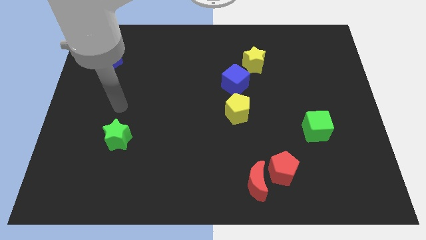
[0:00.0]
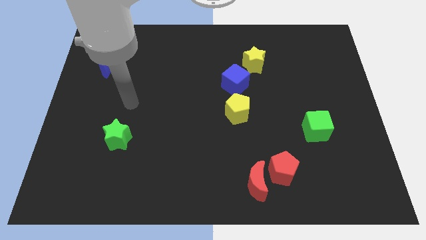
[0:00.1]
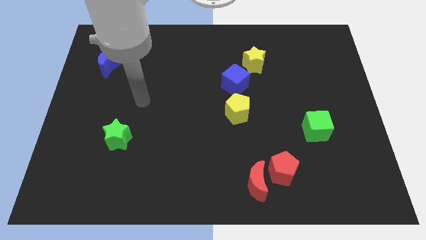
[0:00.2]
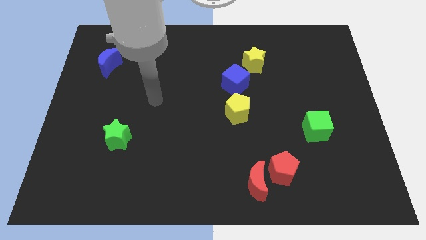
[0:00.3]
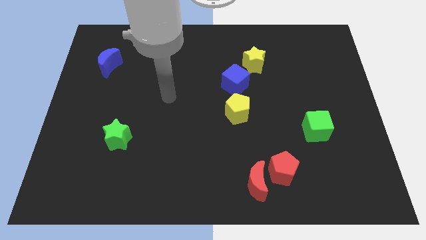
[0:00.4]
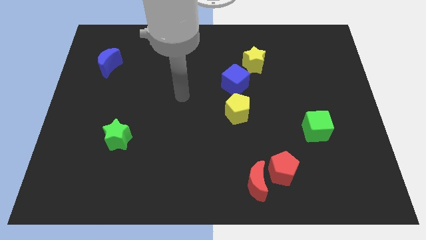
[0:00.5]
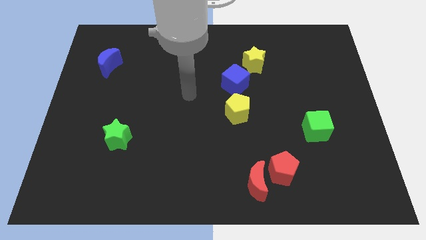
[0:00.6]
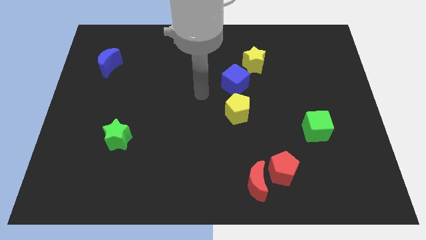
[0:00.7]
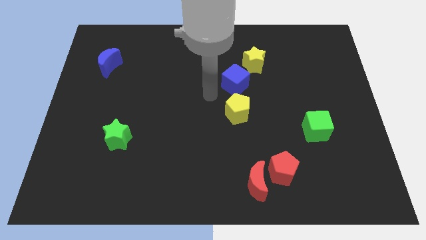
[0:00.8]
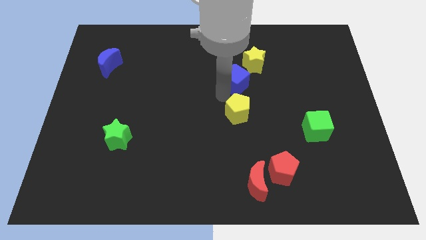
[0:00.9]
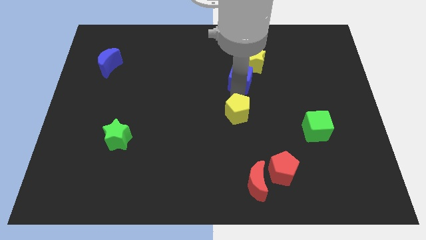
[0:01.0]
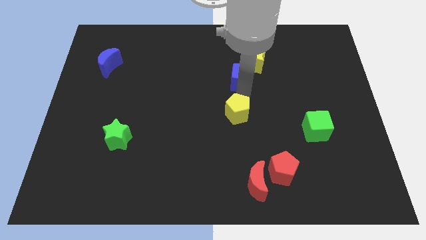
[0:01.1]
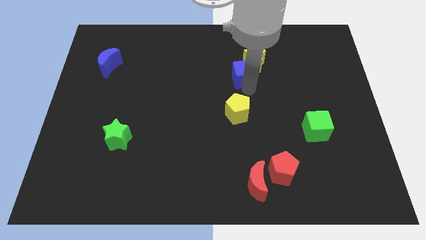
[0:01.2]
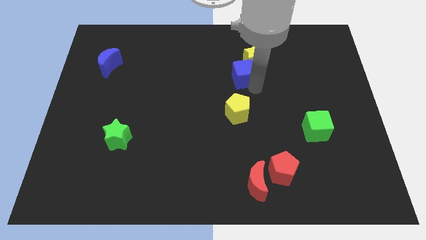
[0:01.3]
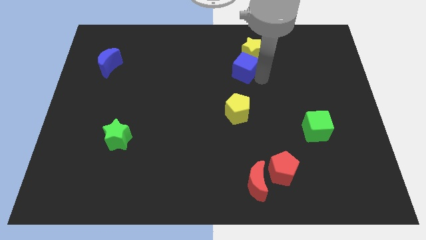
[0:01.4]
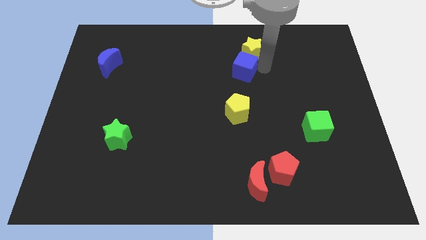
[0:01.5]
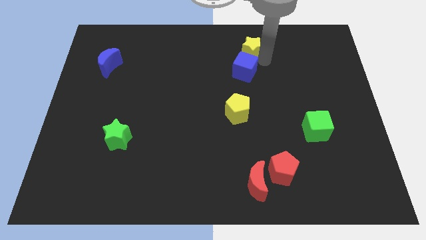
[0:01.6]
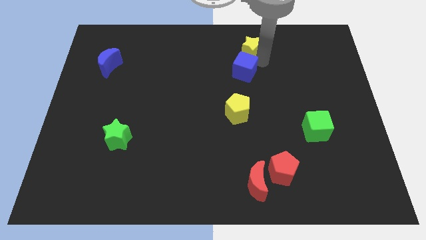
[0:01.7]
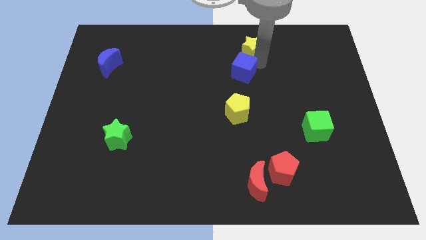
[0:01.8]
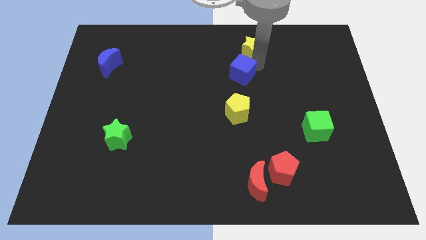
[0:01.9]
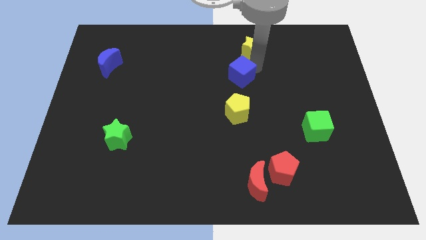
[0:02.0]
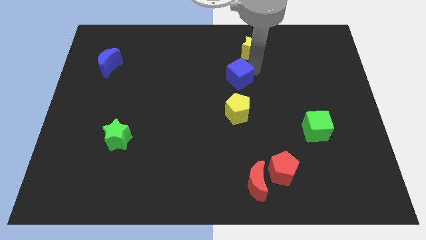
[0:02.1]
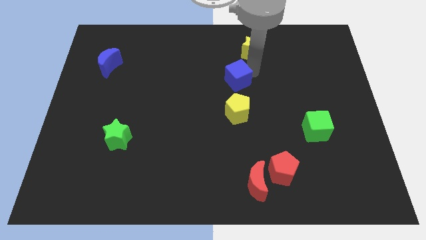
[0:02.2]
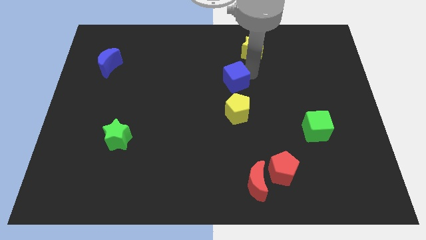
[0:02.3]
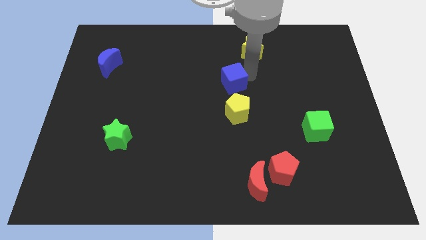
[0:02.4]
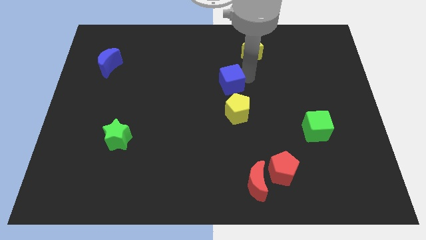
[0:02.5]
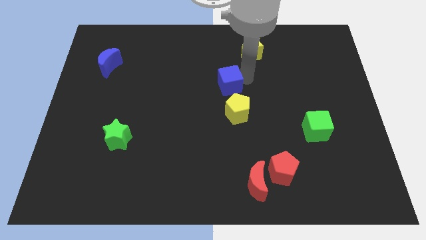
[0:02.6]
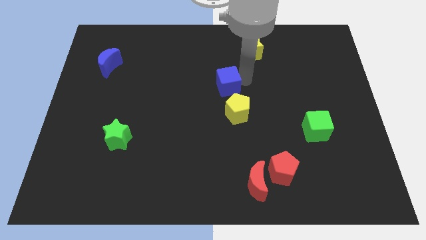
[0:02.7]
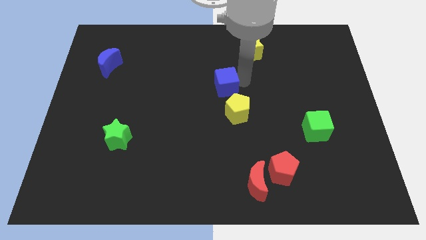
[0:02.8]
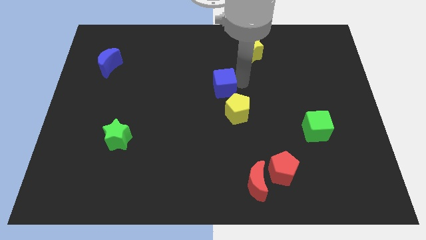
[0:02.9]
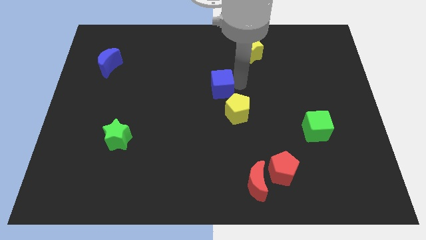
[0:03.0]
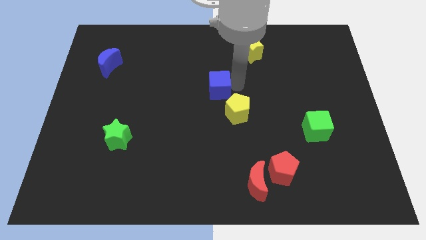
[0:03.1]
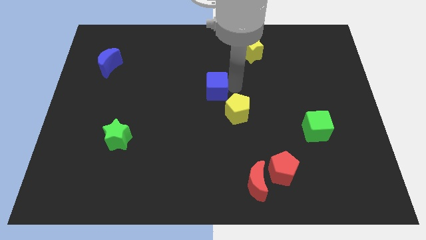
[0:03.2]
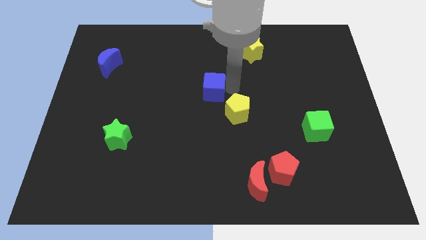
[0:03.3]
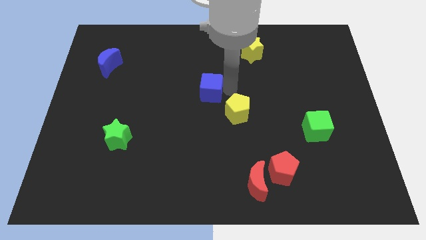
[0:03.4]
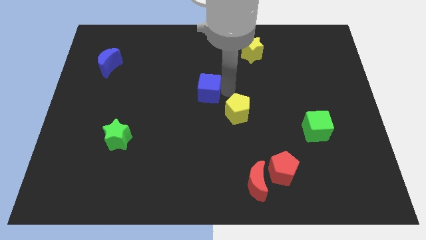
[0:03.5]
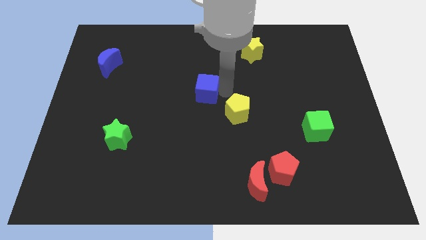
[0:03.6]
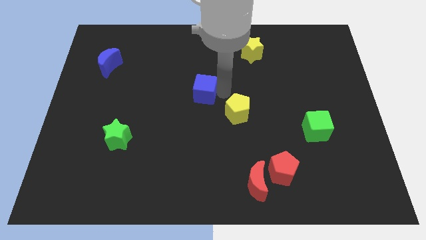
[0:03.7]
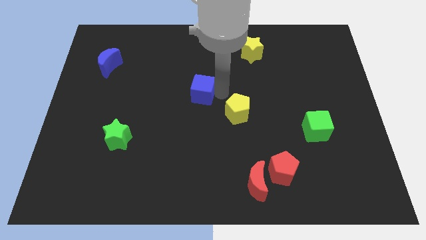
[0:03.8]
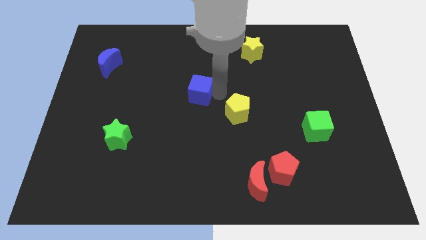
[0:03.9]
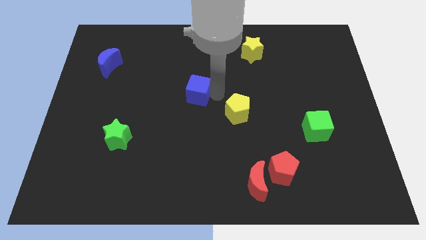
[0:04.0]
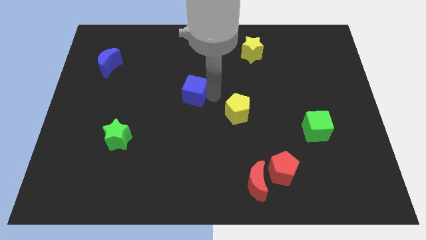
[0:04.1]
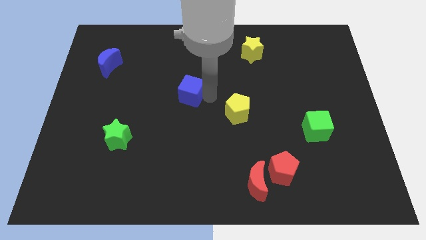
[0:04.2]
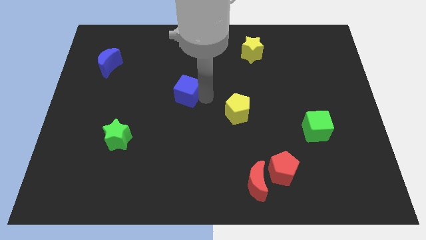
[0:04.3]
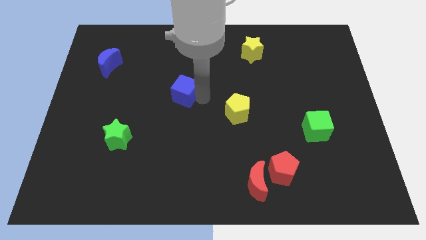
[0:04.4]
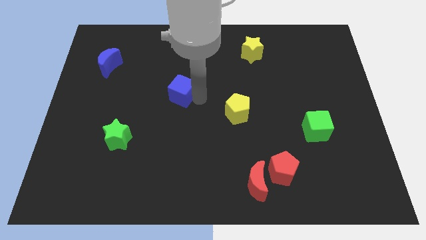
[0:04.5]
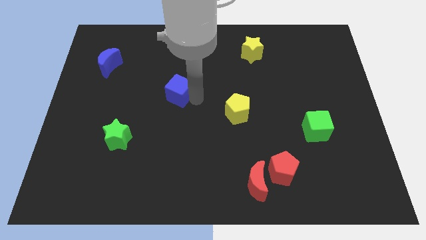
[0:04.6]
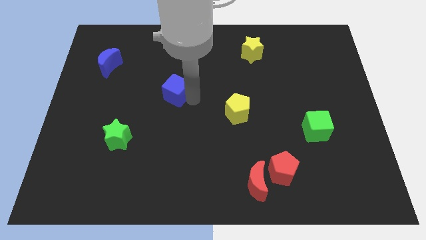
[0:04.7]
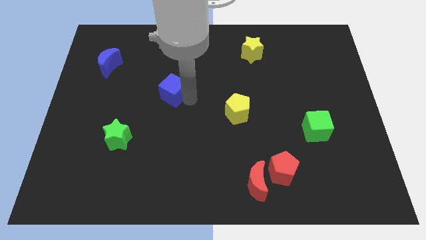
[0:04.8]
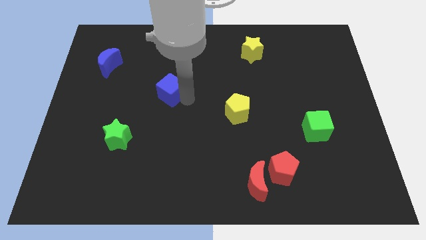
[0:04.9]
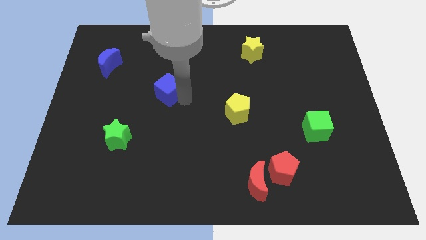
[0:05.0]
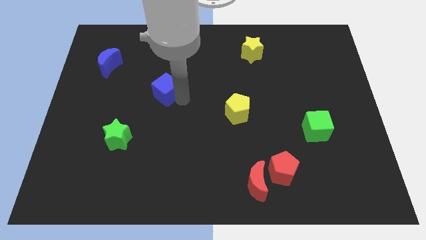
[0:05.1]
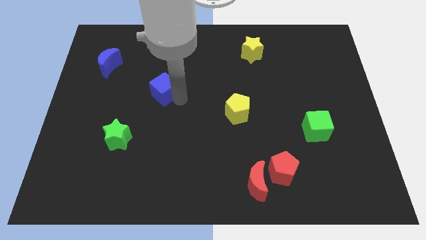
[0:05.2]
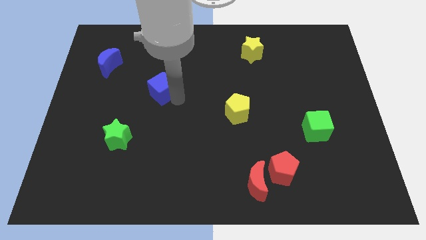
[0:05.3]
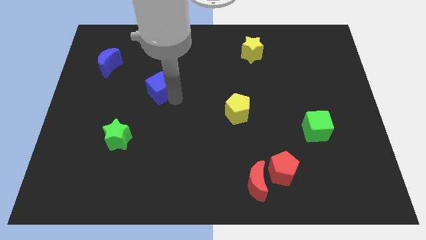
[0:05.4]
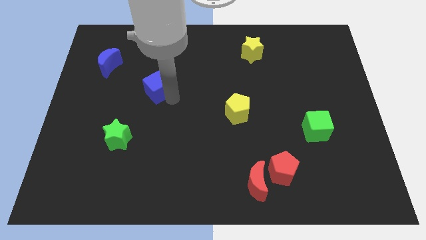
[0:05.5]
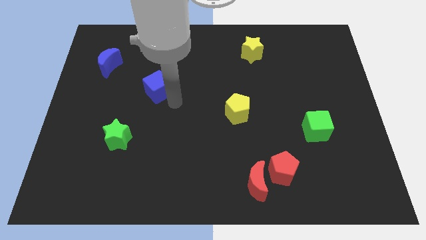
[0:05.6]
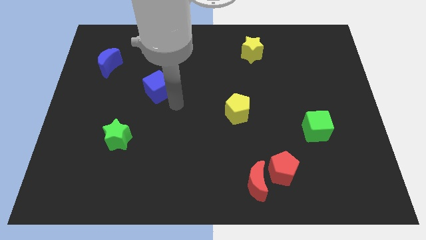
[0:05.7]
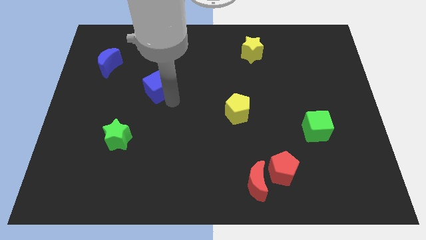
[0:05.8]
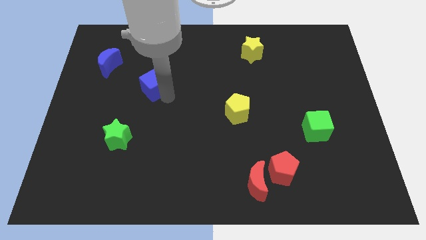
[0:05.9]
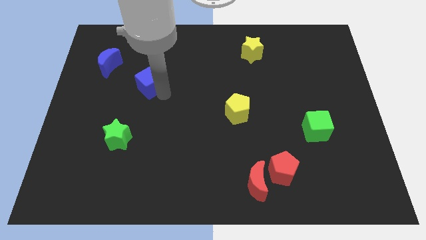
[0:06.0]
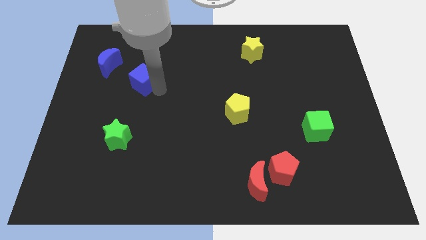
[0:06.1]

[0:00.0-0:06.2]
push the blue cube to the bottom right of the blue moon

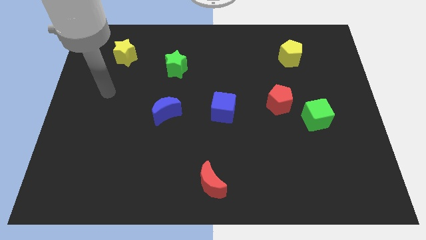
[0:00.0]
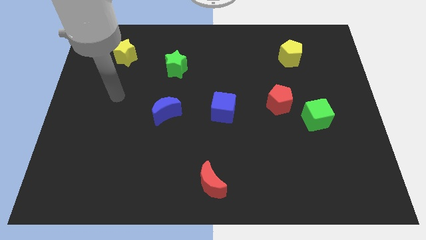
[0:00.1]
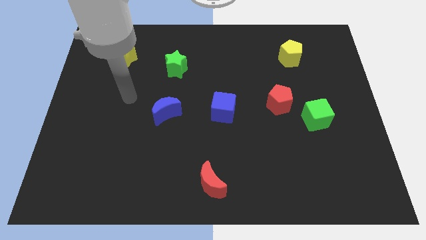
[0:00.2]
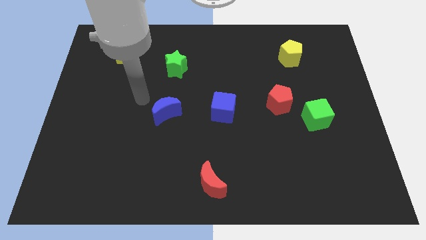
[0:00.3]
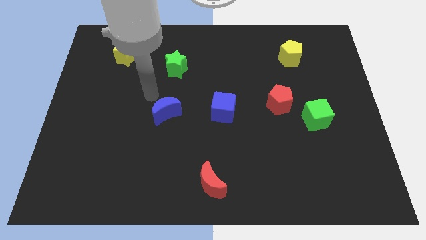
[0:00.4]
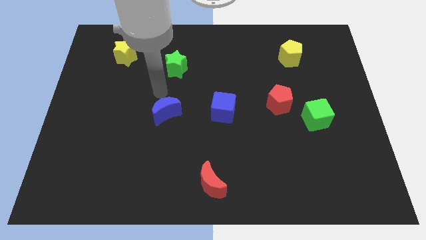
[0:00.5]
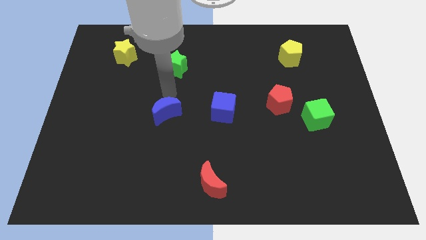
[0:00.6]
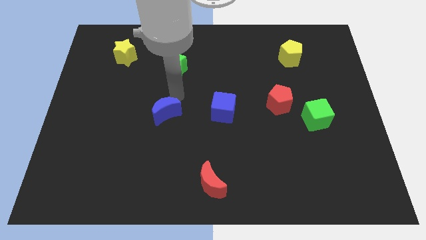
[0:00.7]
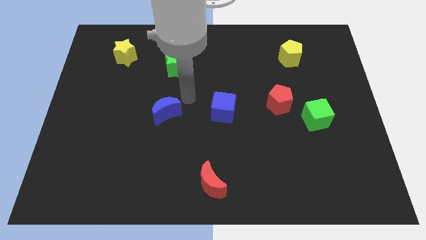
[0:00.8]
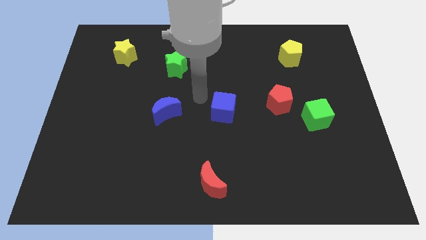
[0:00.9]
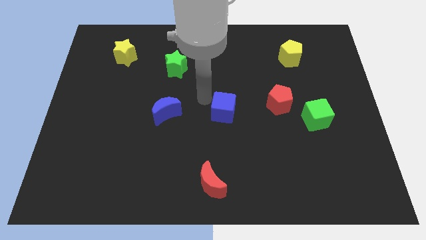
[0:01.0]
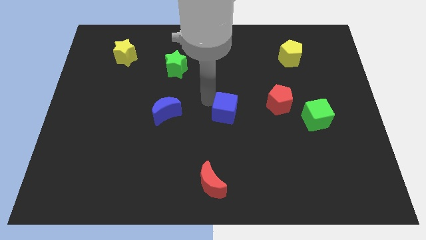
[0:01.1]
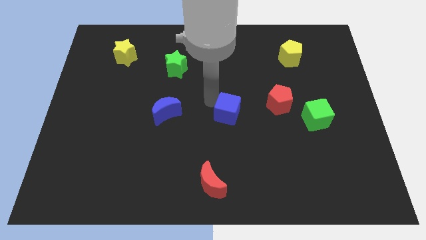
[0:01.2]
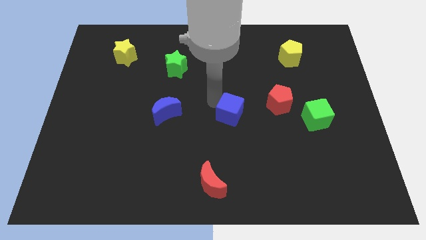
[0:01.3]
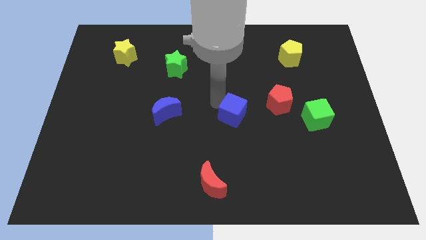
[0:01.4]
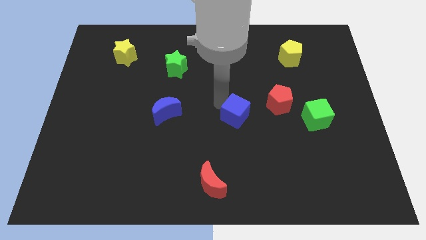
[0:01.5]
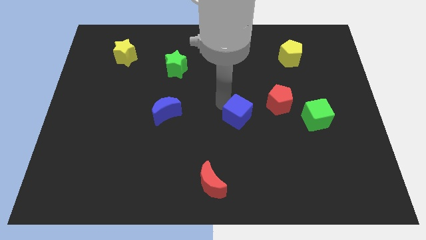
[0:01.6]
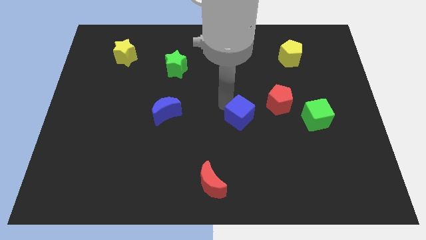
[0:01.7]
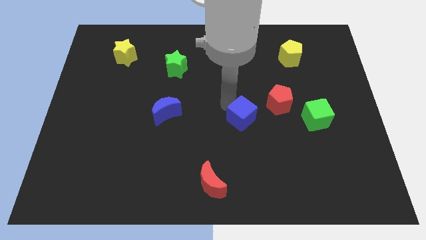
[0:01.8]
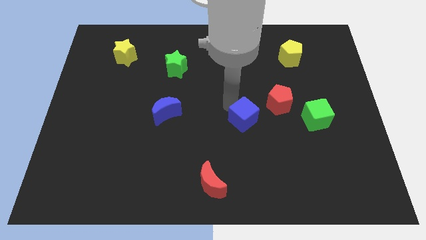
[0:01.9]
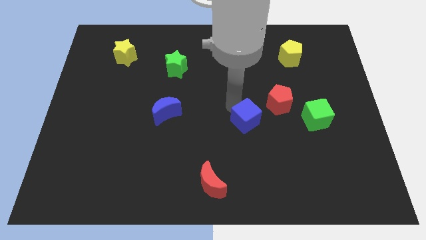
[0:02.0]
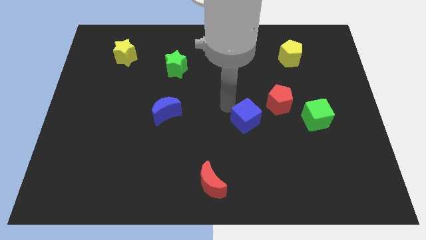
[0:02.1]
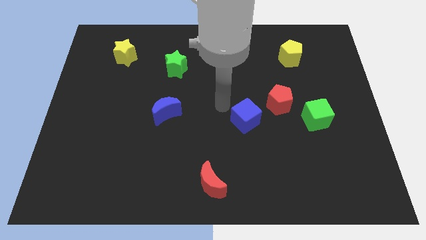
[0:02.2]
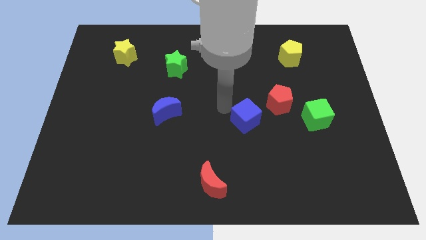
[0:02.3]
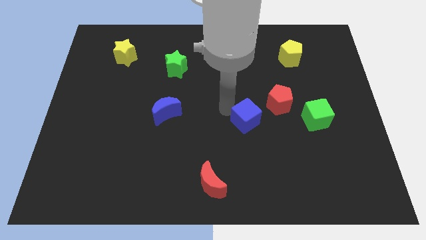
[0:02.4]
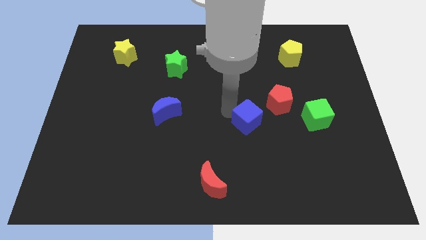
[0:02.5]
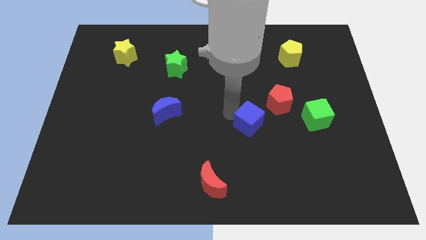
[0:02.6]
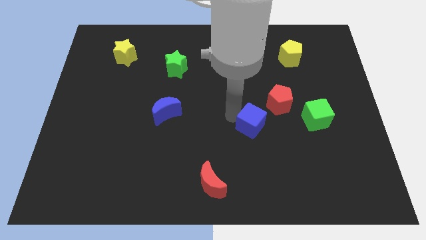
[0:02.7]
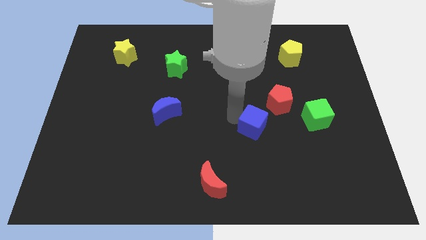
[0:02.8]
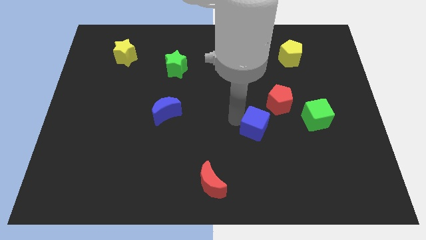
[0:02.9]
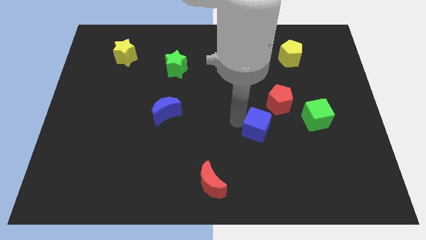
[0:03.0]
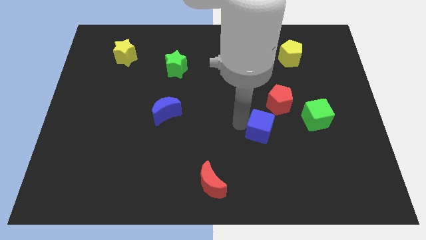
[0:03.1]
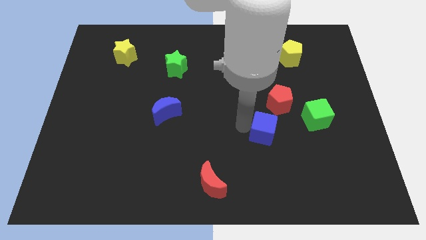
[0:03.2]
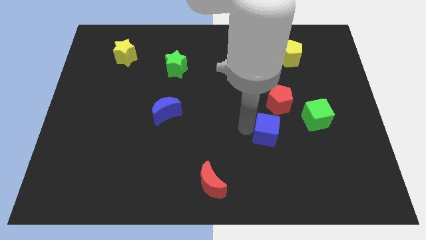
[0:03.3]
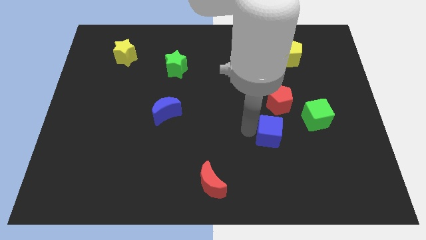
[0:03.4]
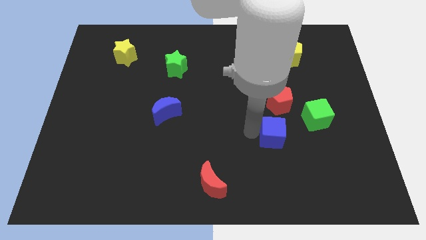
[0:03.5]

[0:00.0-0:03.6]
move the blue cube to the bottom left of the green cube
